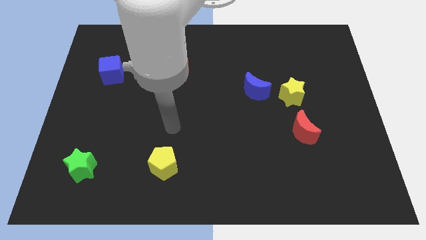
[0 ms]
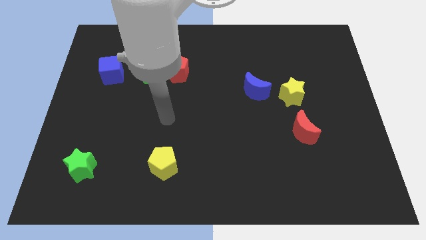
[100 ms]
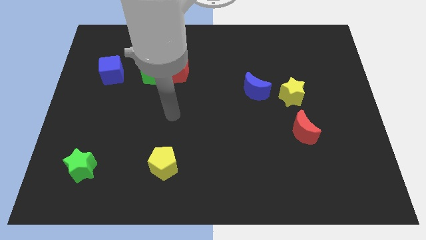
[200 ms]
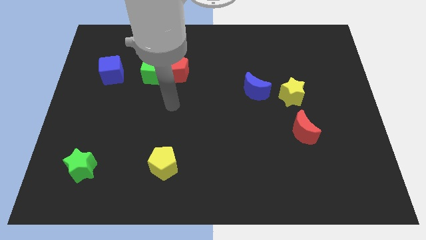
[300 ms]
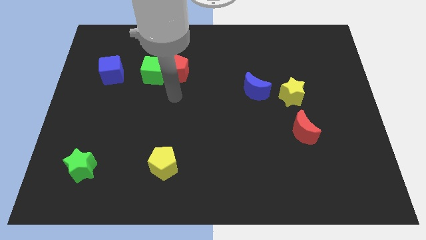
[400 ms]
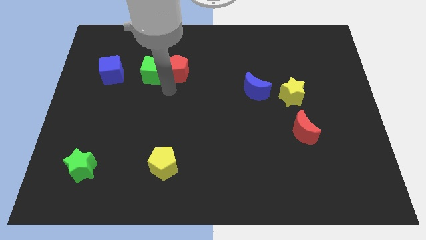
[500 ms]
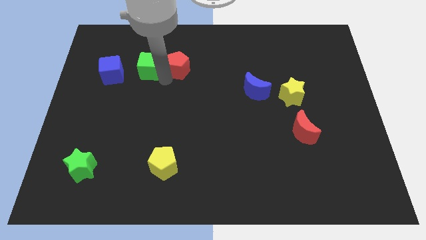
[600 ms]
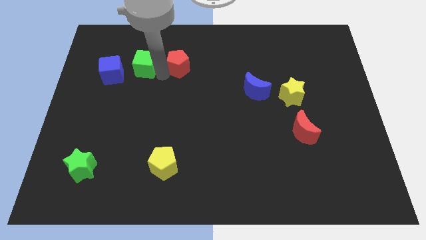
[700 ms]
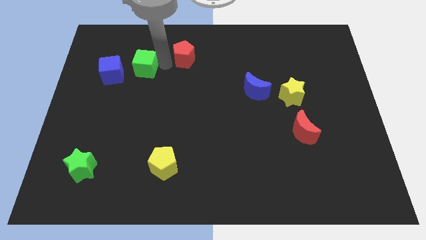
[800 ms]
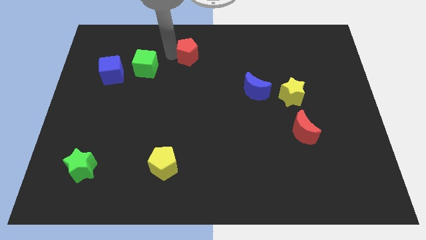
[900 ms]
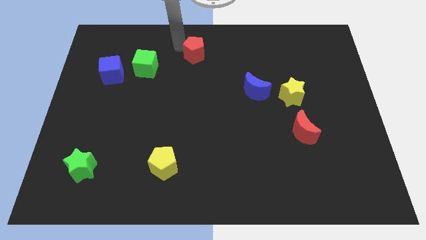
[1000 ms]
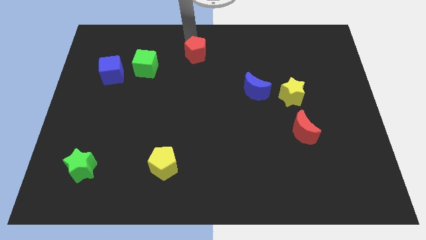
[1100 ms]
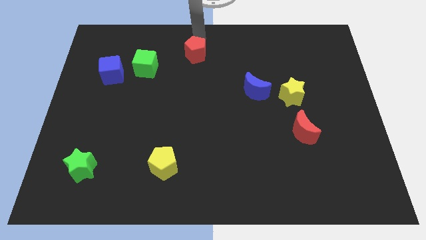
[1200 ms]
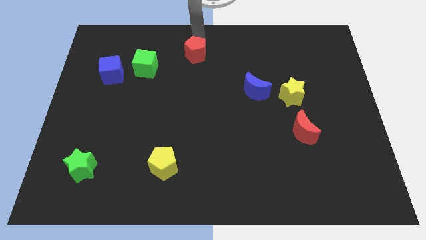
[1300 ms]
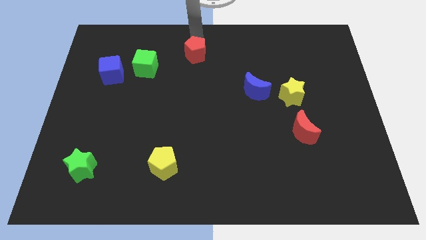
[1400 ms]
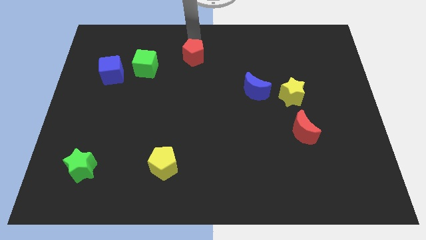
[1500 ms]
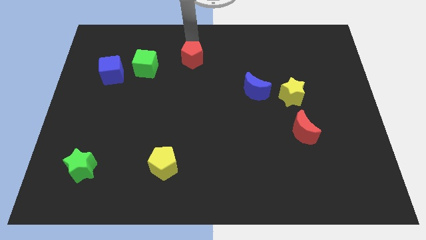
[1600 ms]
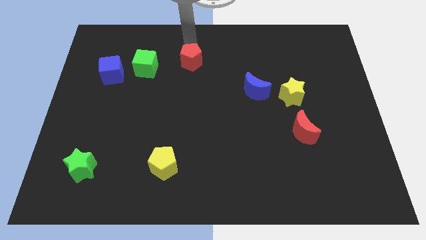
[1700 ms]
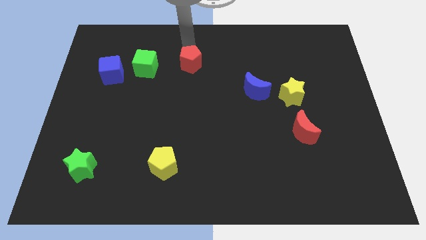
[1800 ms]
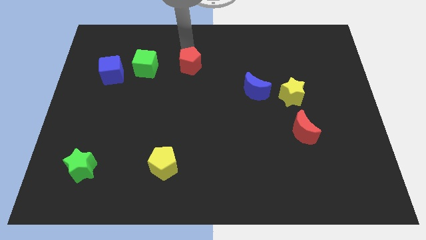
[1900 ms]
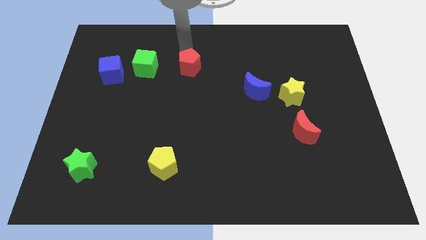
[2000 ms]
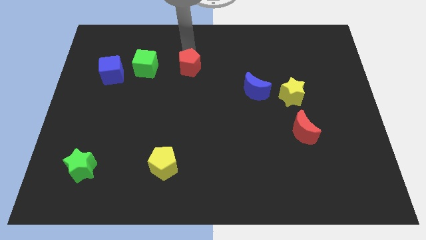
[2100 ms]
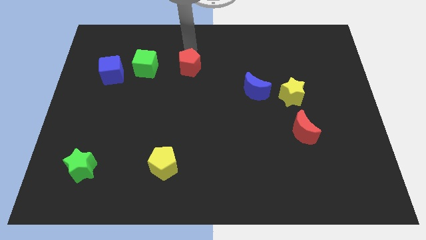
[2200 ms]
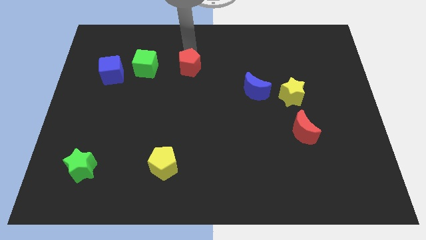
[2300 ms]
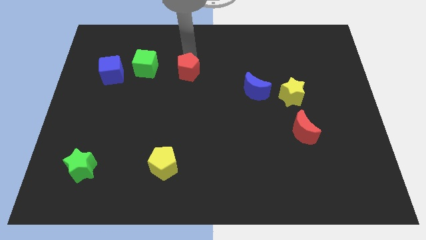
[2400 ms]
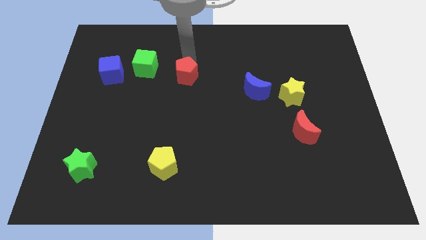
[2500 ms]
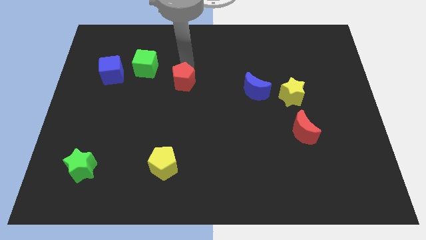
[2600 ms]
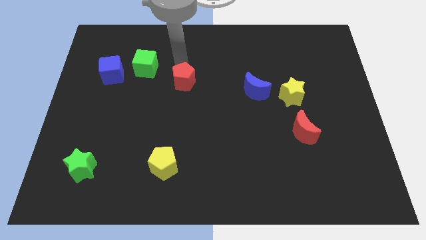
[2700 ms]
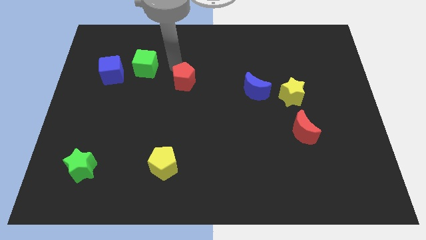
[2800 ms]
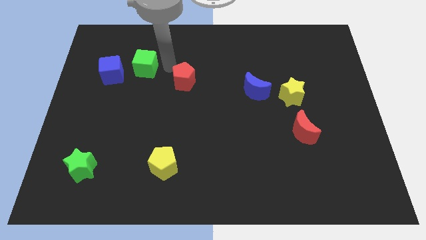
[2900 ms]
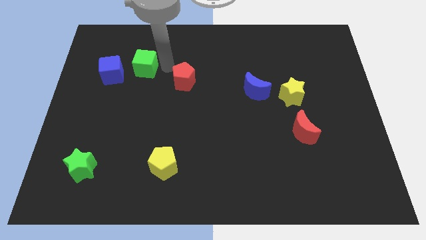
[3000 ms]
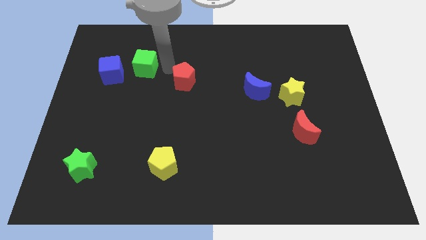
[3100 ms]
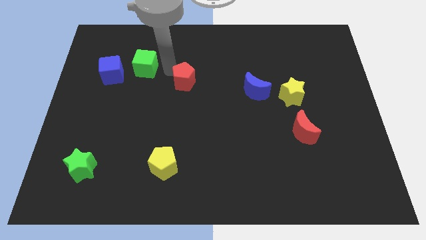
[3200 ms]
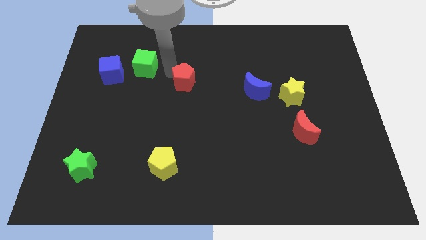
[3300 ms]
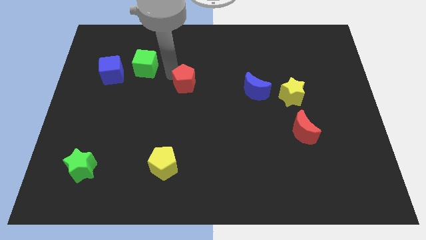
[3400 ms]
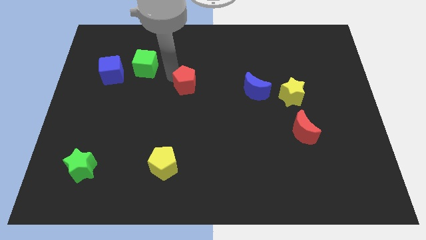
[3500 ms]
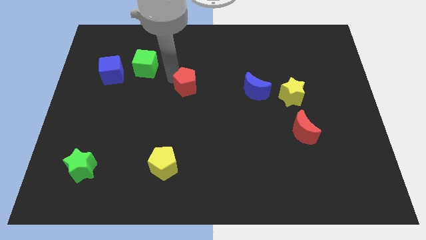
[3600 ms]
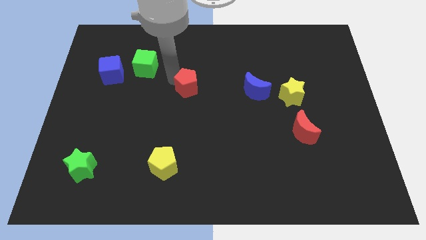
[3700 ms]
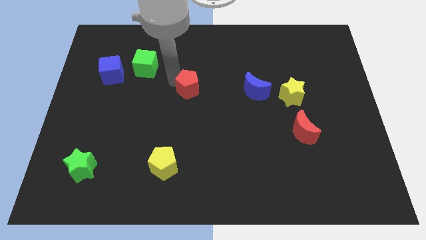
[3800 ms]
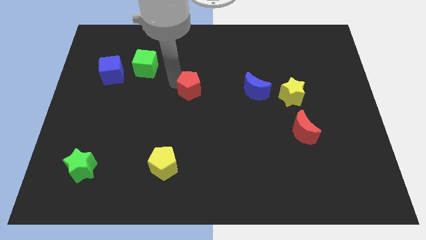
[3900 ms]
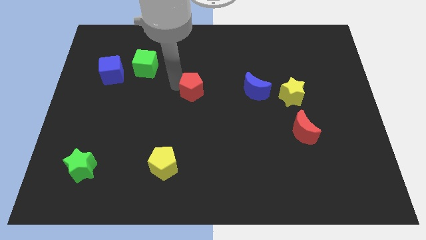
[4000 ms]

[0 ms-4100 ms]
move the red pentagon diagonally downwards and to the right somewhat

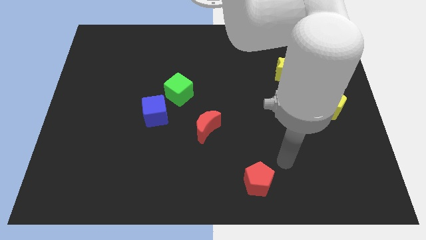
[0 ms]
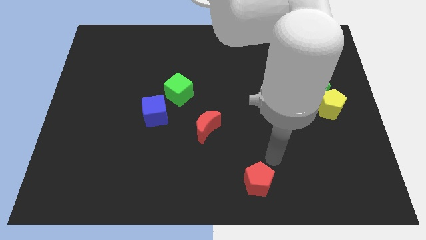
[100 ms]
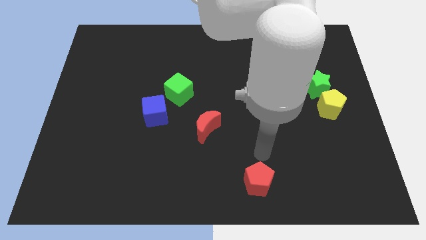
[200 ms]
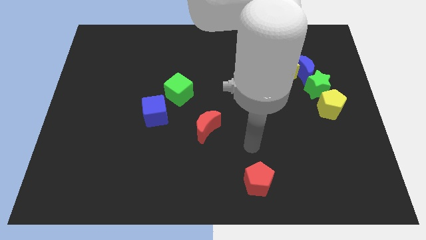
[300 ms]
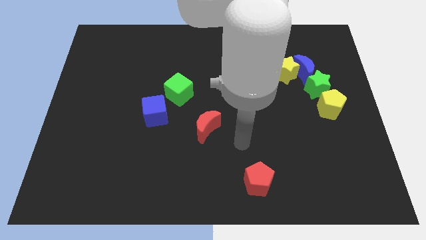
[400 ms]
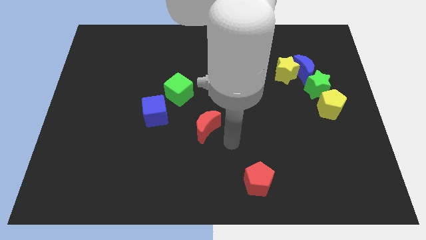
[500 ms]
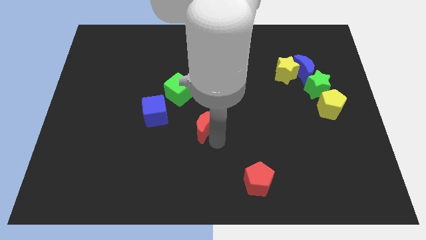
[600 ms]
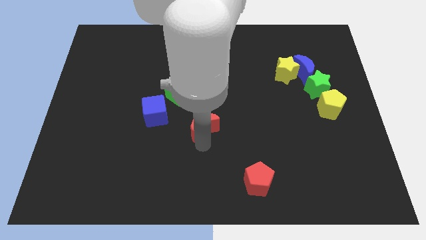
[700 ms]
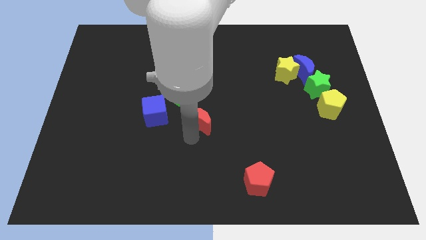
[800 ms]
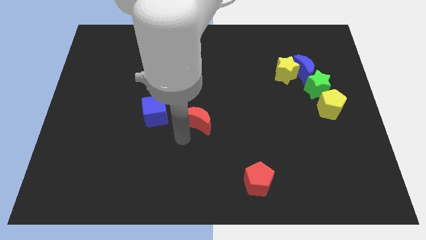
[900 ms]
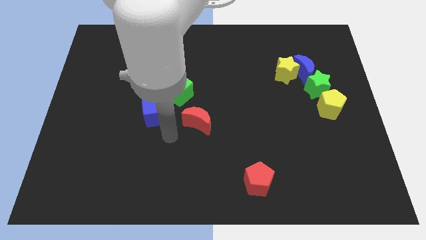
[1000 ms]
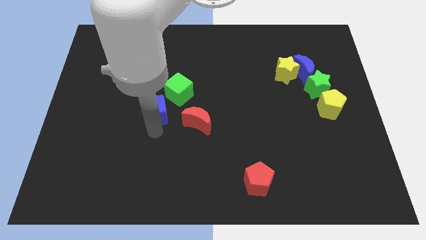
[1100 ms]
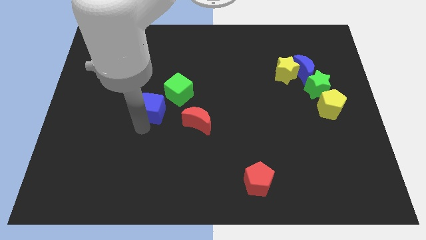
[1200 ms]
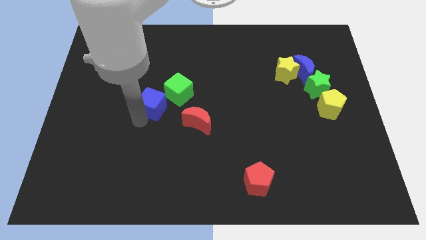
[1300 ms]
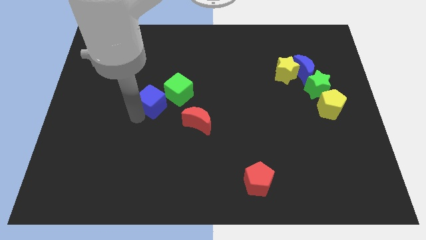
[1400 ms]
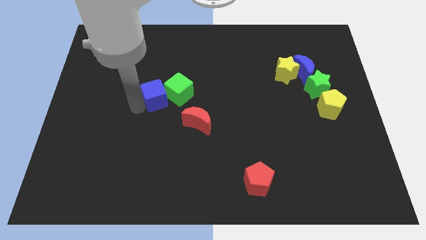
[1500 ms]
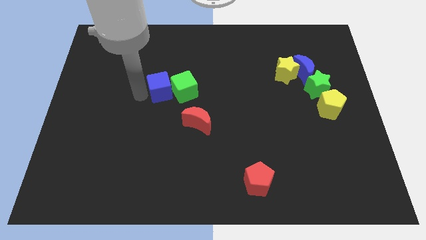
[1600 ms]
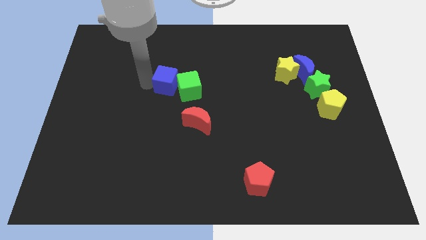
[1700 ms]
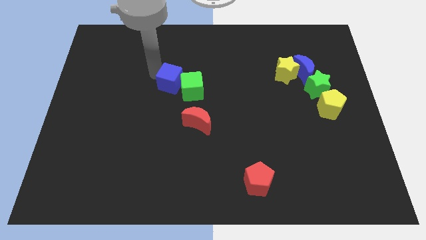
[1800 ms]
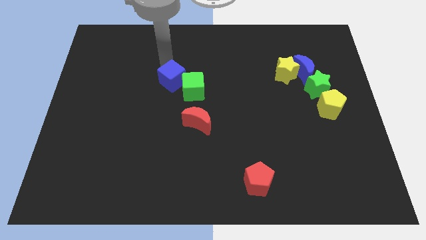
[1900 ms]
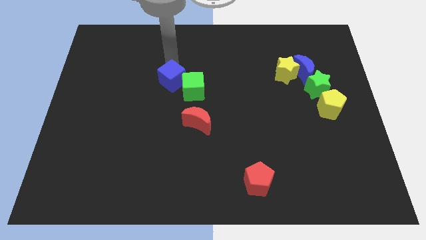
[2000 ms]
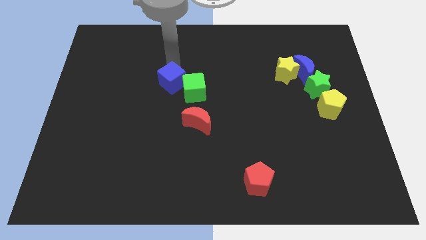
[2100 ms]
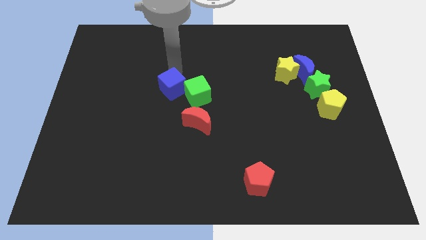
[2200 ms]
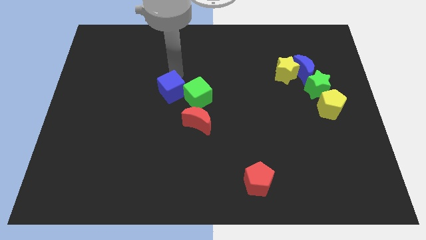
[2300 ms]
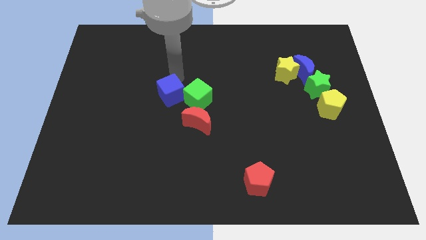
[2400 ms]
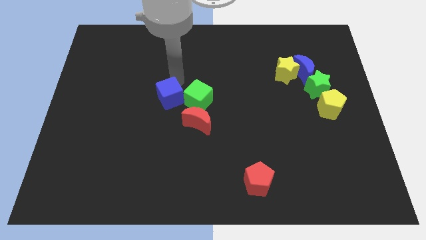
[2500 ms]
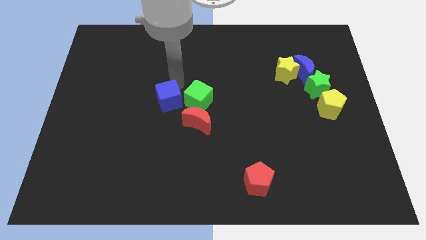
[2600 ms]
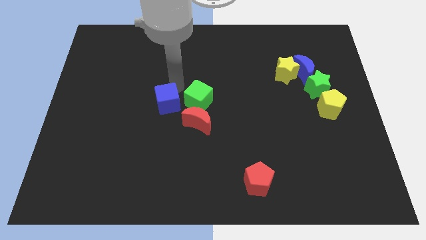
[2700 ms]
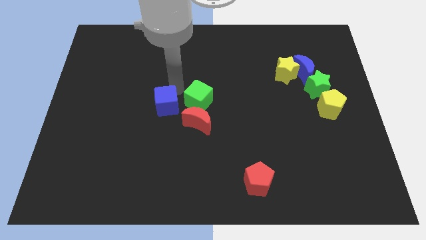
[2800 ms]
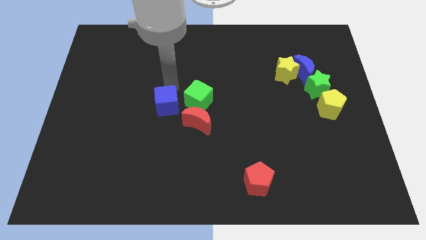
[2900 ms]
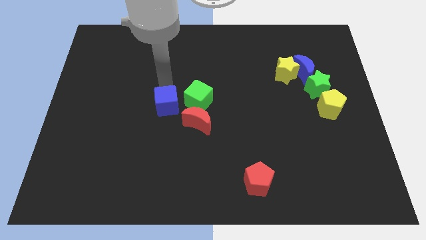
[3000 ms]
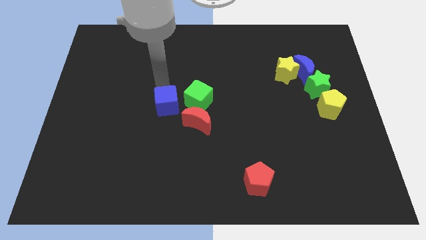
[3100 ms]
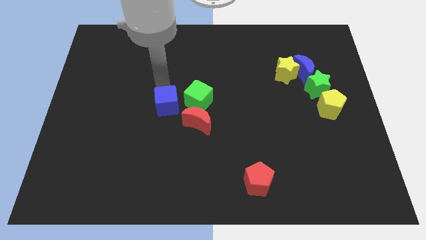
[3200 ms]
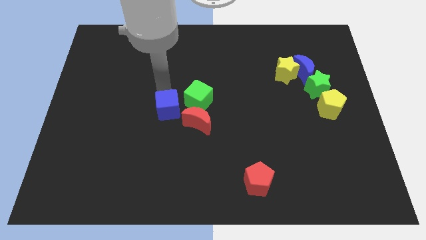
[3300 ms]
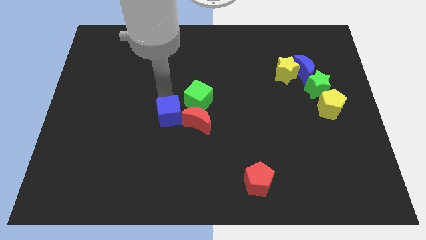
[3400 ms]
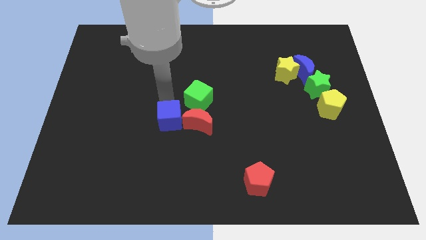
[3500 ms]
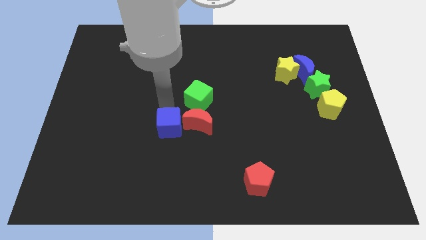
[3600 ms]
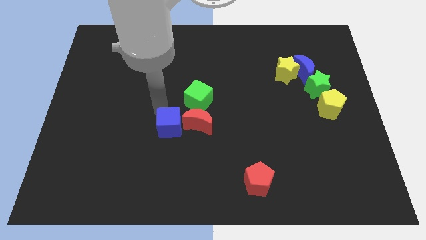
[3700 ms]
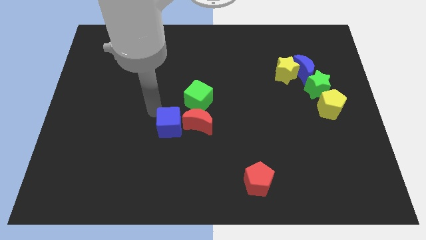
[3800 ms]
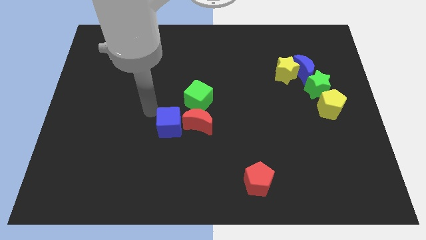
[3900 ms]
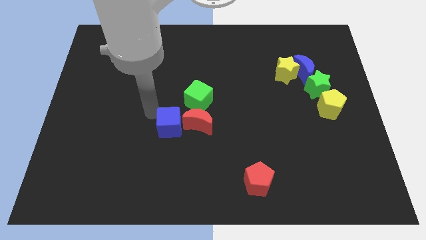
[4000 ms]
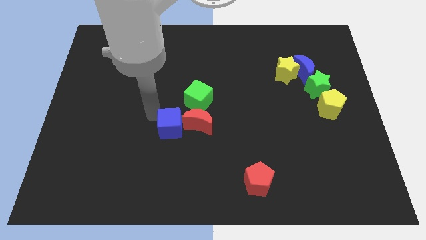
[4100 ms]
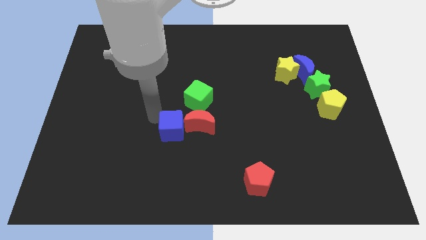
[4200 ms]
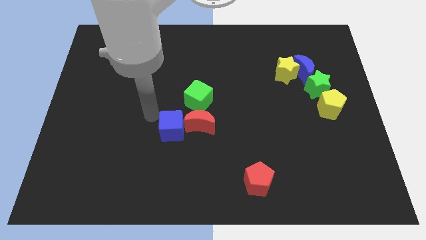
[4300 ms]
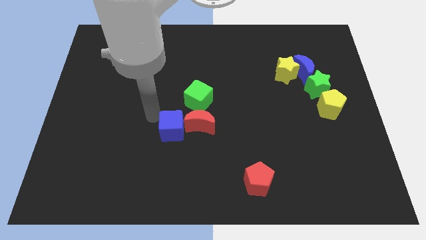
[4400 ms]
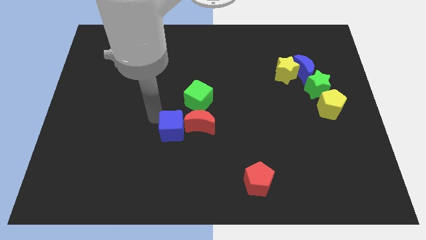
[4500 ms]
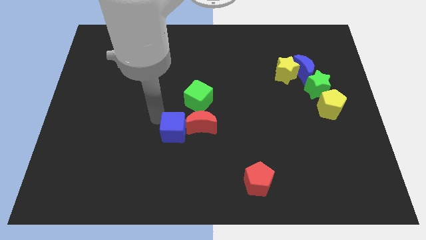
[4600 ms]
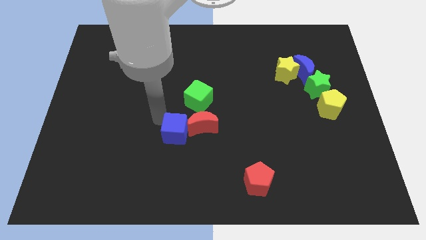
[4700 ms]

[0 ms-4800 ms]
slide the blue cube down and to the right a bit
